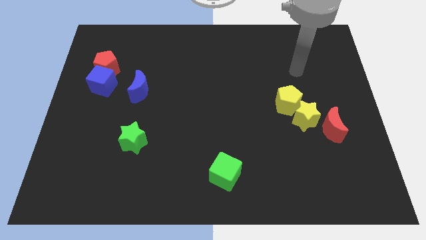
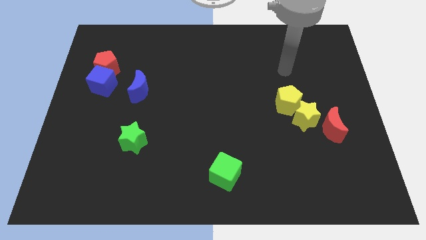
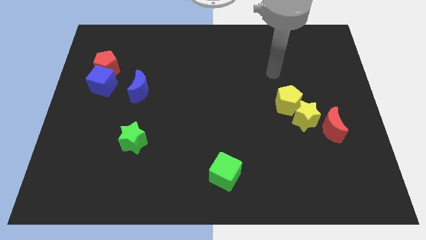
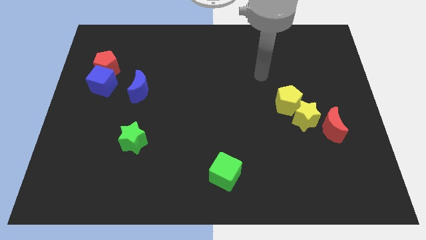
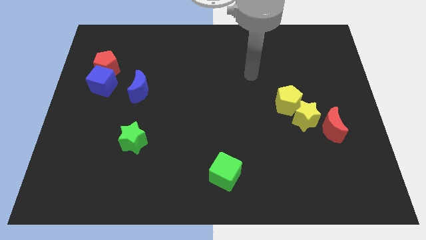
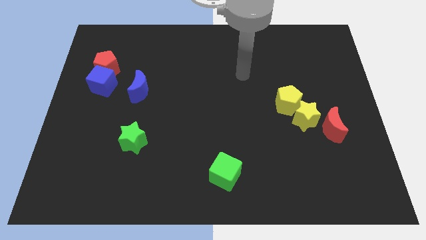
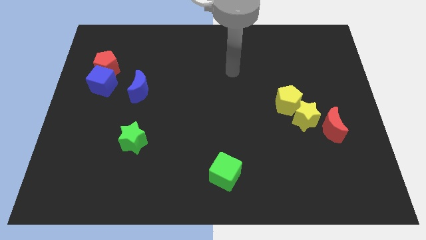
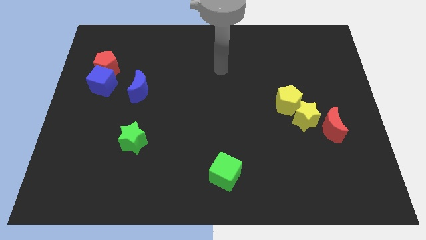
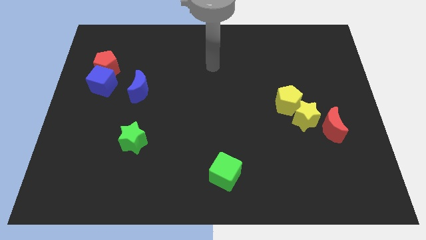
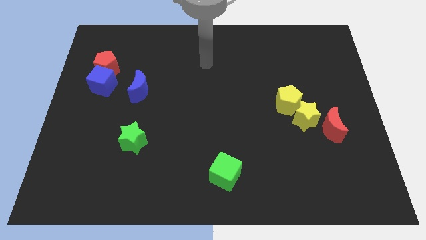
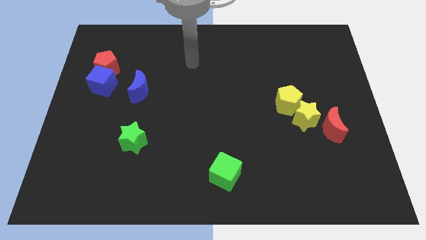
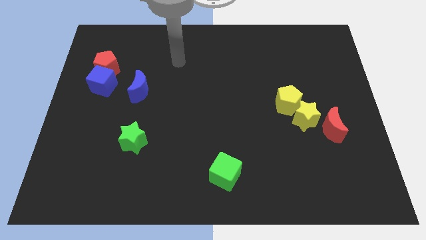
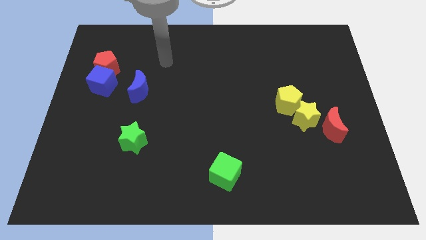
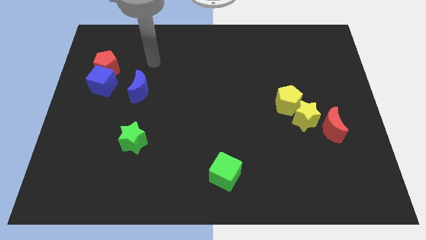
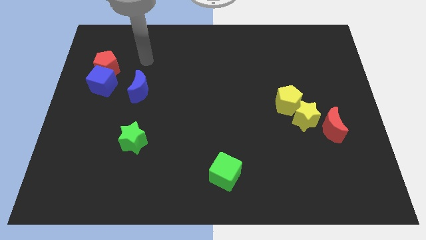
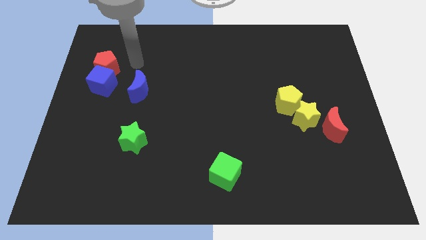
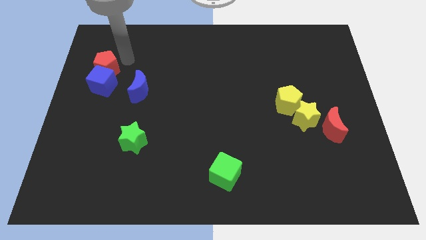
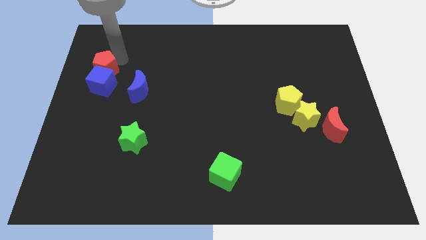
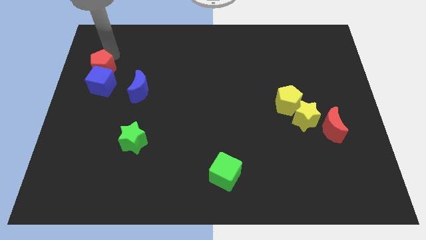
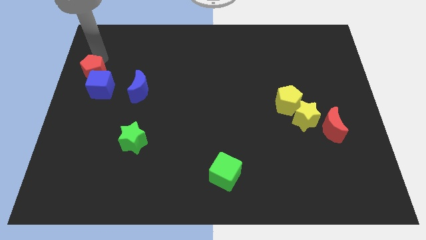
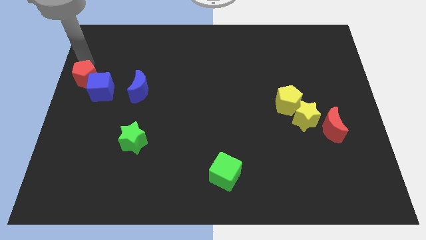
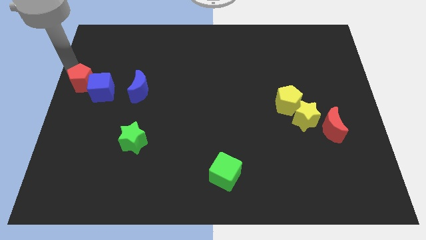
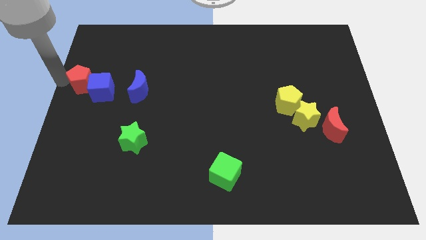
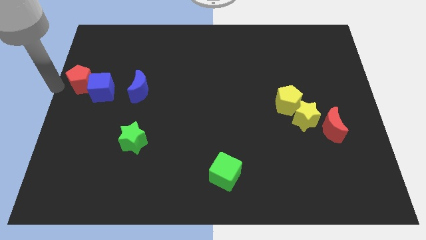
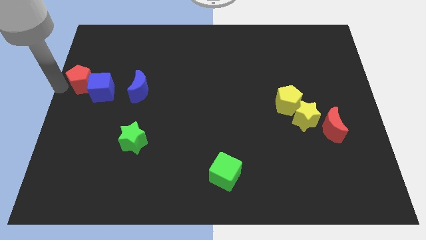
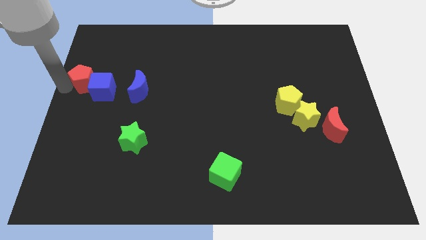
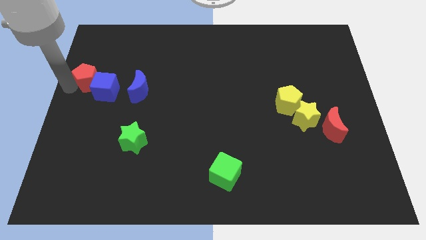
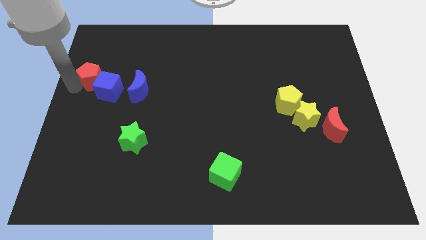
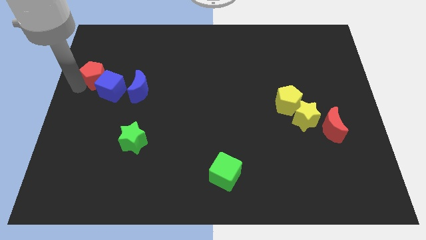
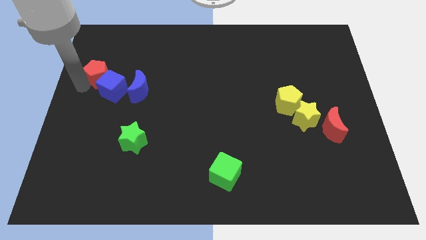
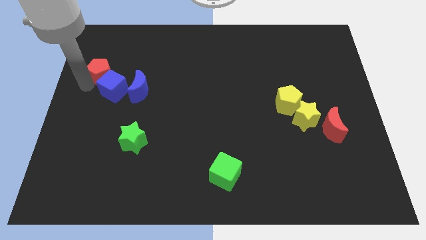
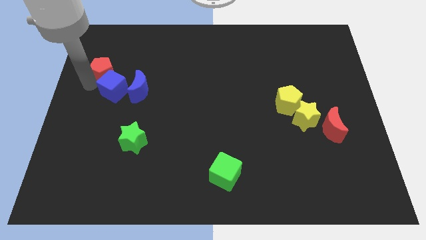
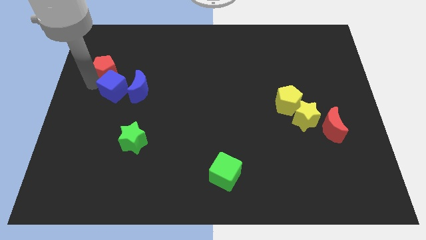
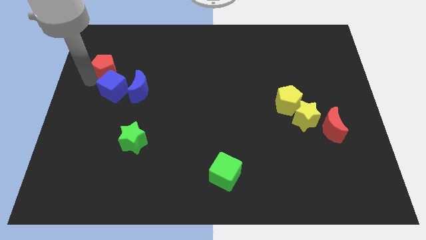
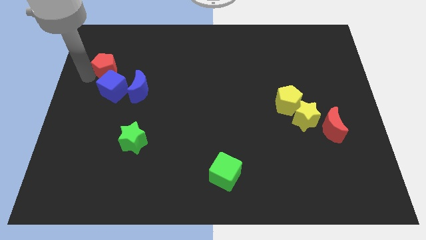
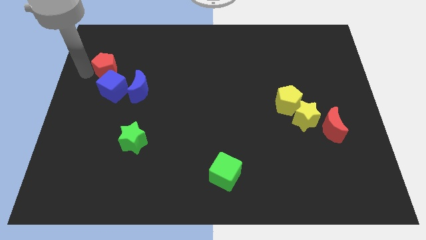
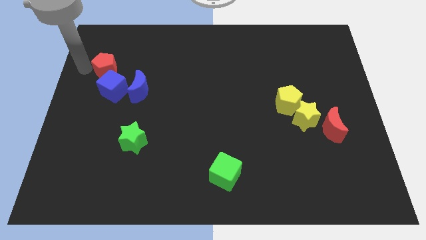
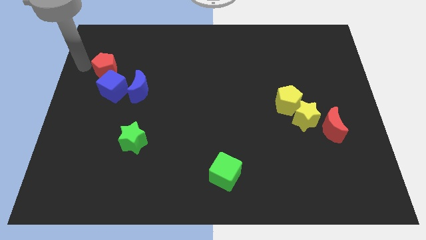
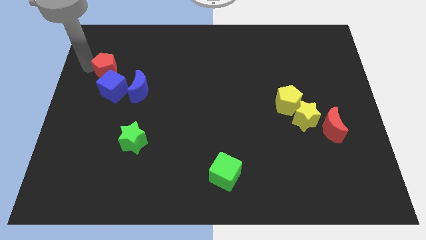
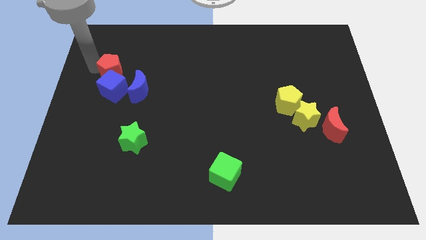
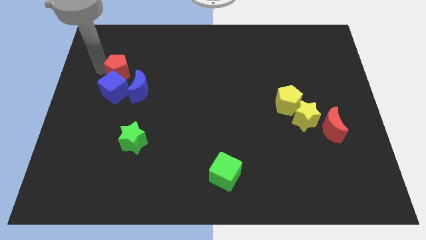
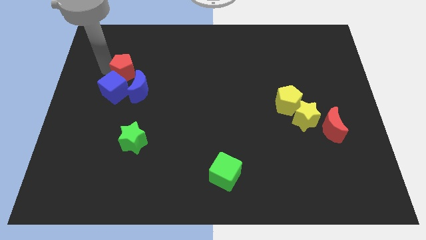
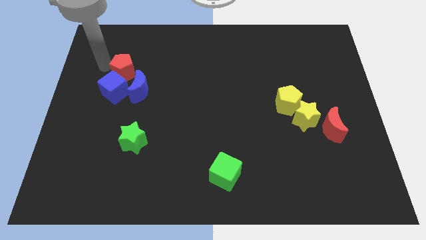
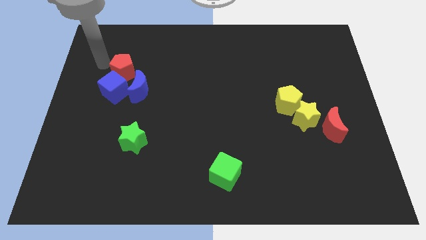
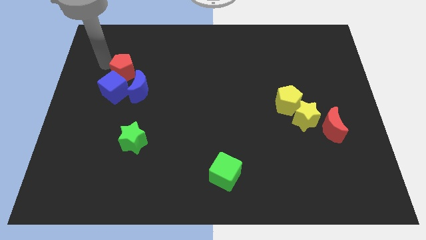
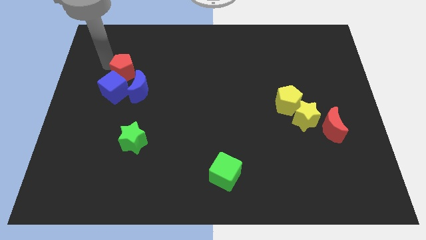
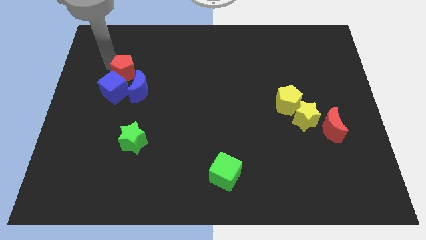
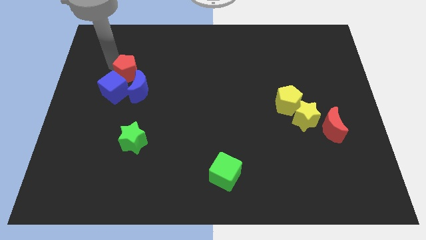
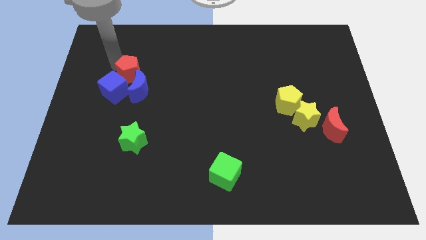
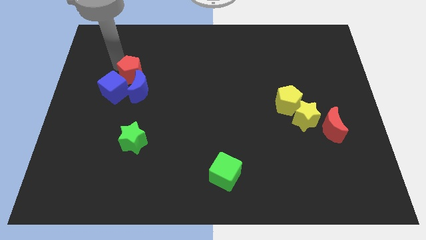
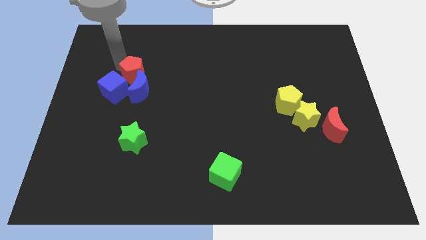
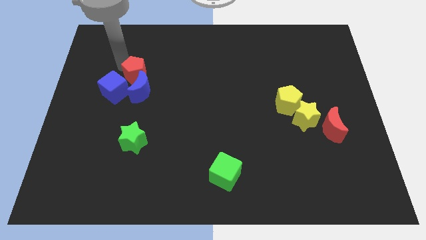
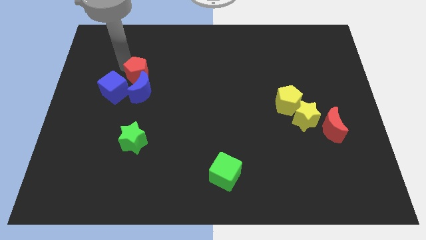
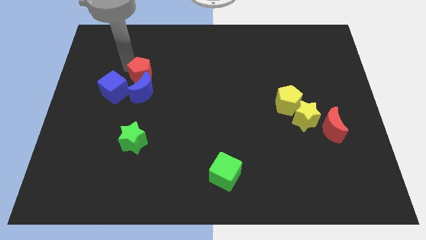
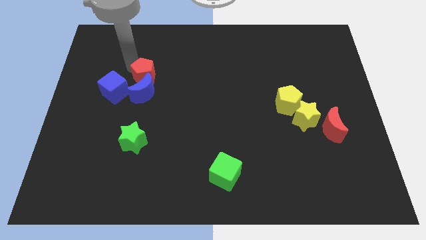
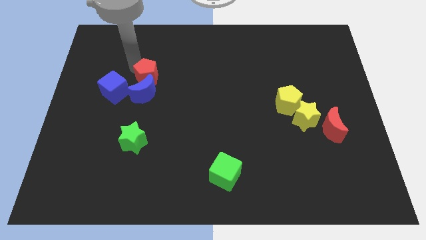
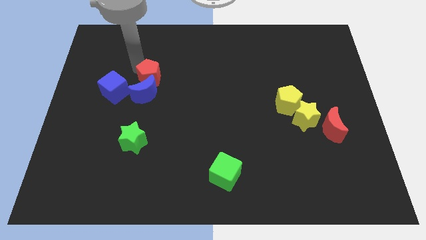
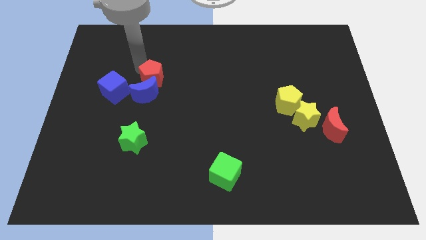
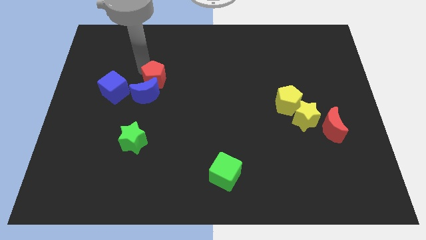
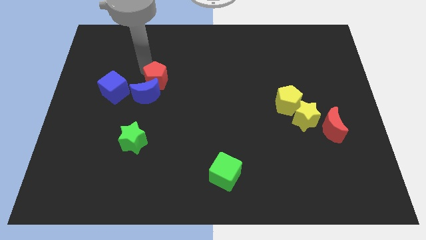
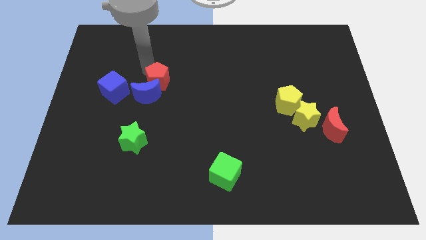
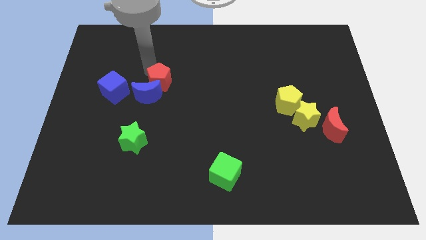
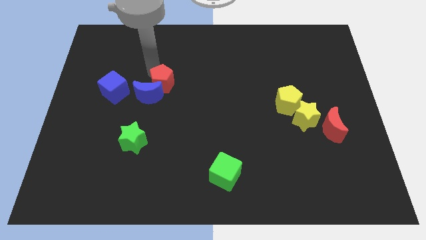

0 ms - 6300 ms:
move the red pentagon just right of the blue moon

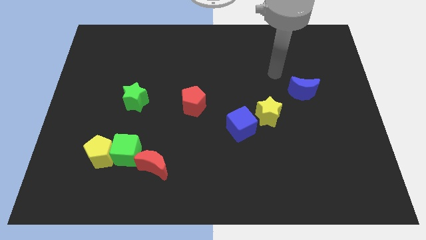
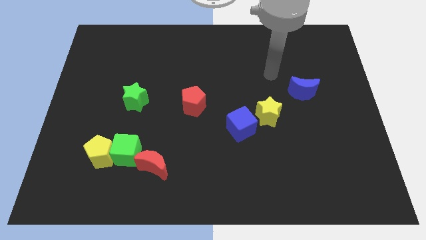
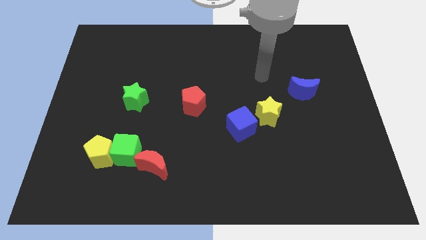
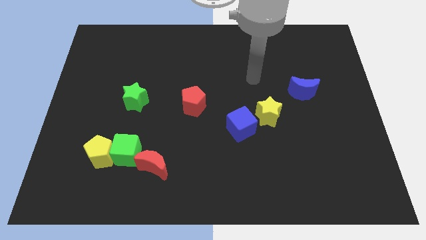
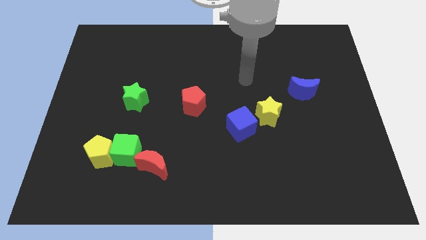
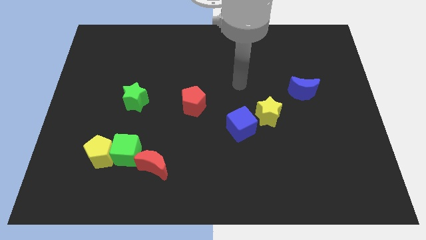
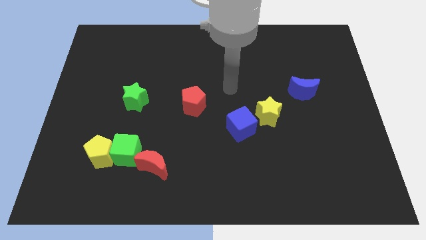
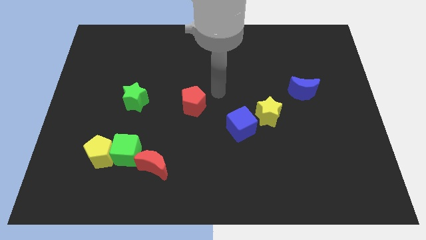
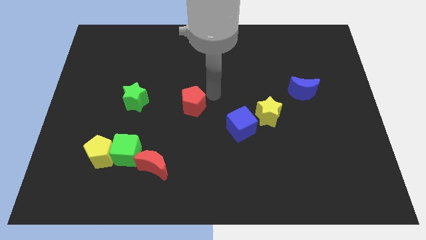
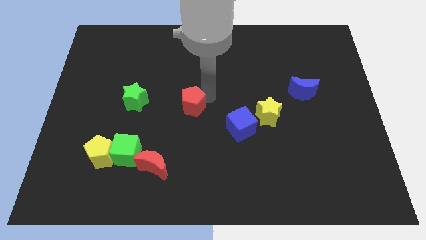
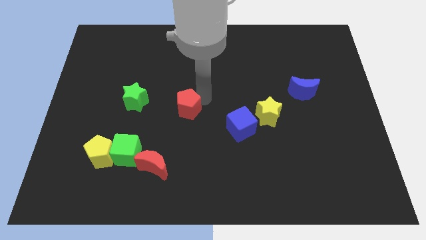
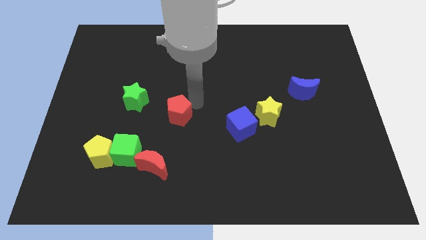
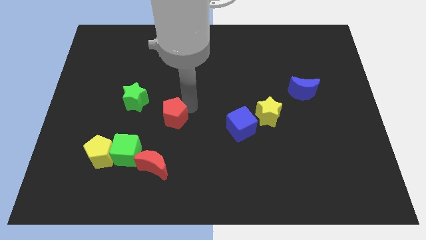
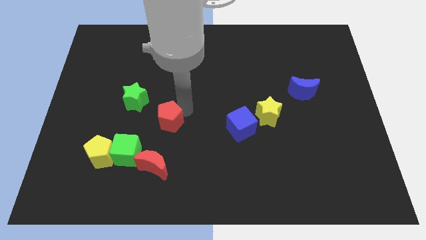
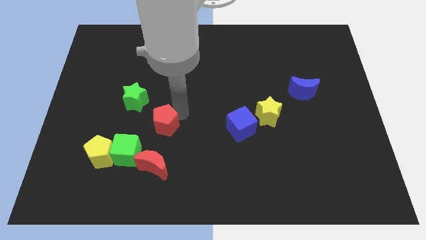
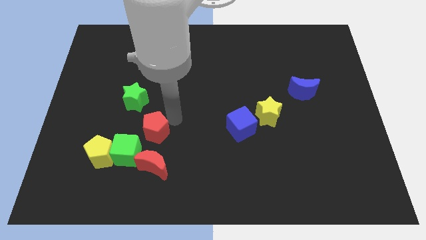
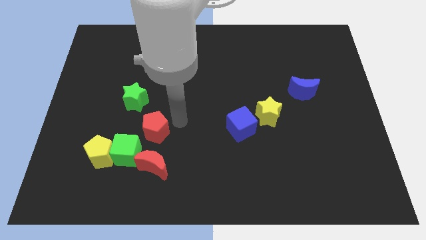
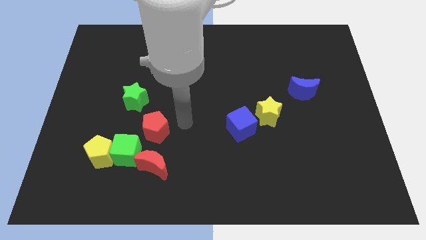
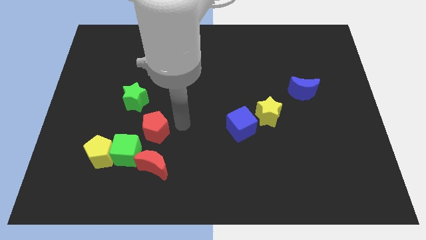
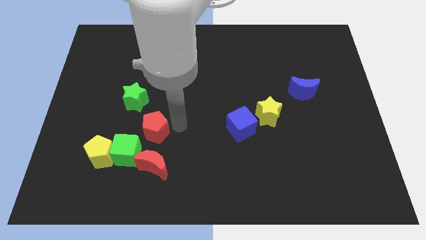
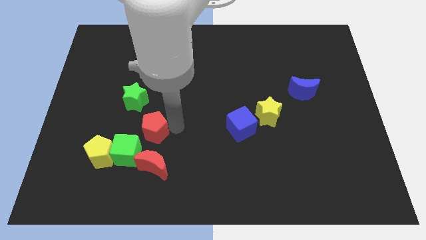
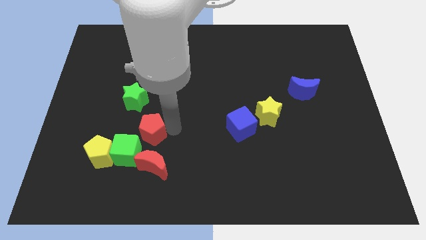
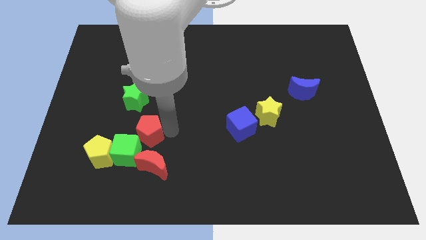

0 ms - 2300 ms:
move the red pentagon below the green star
